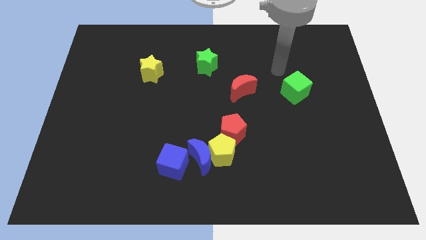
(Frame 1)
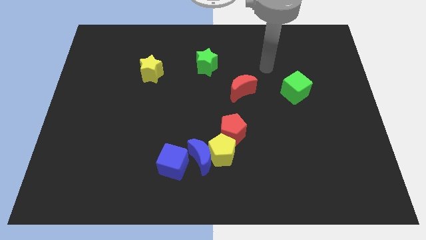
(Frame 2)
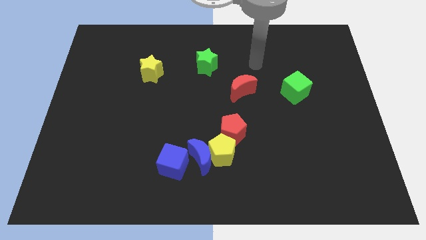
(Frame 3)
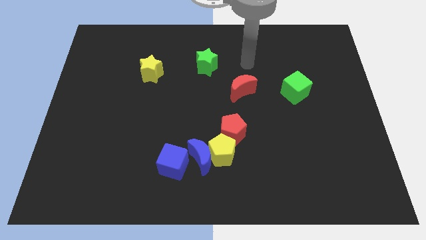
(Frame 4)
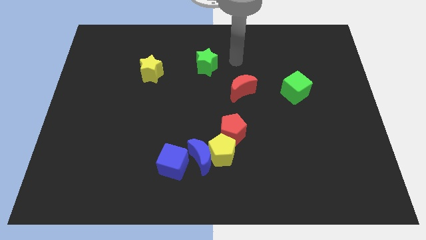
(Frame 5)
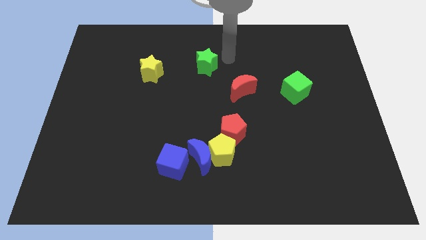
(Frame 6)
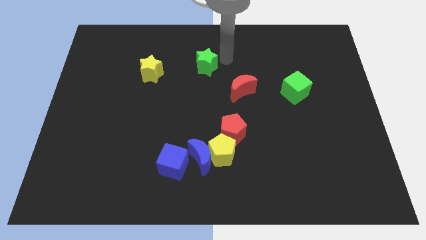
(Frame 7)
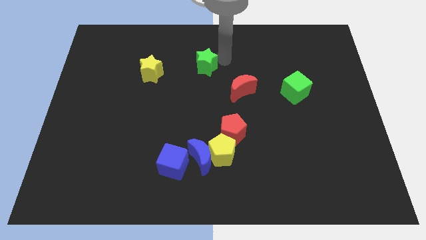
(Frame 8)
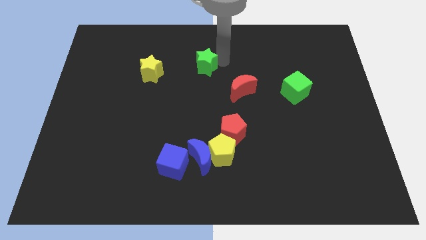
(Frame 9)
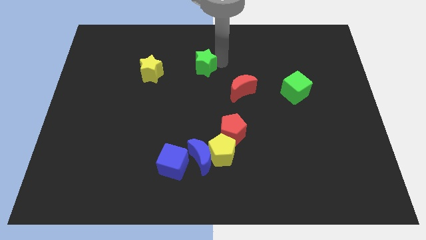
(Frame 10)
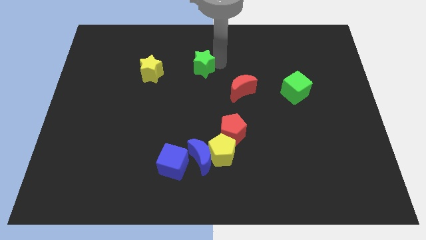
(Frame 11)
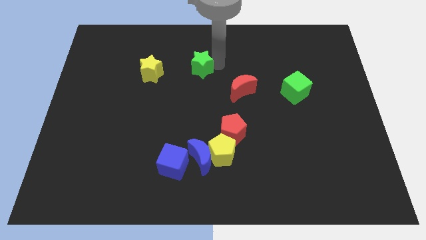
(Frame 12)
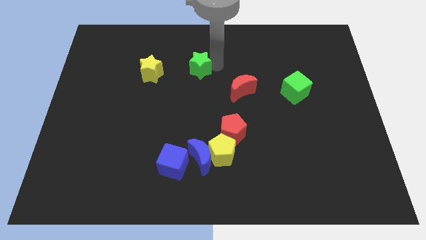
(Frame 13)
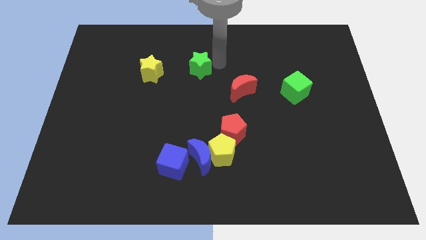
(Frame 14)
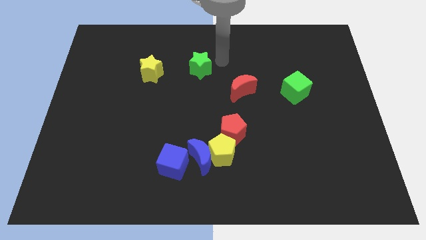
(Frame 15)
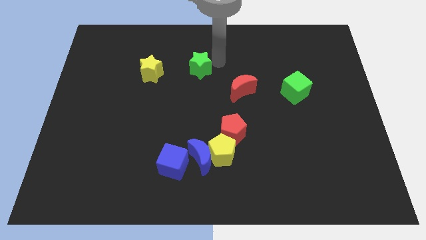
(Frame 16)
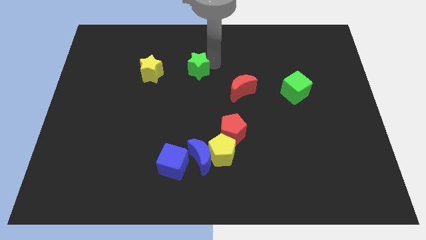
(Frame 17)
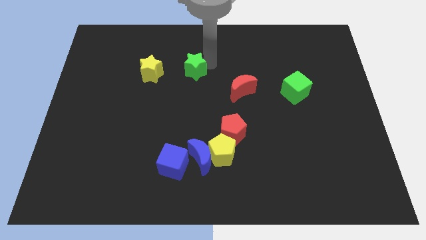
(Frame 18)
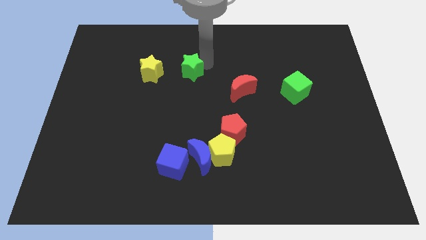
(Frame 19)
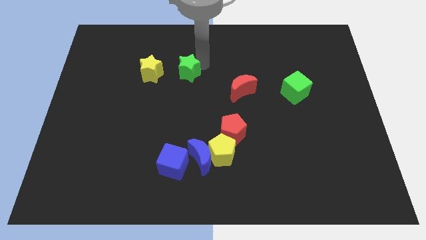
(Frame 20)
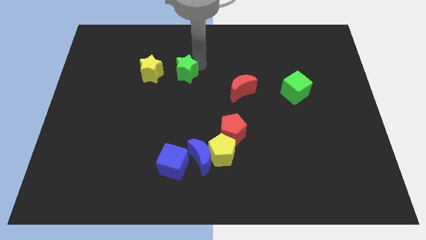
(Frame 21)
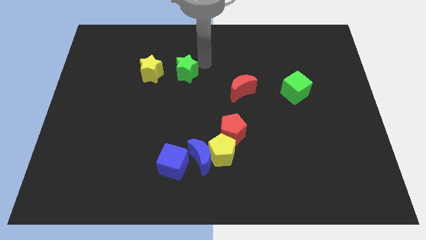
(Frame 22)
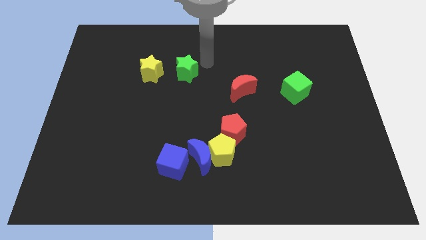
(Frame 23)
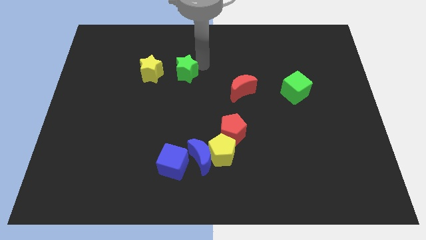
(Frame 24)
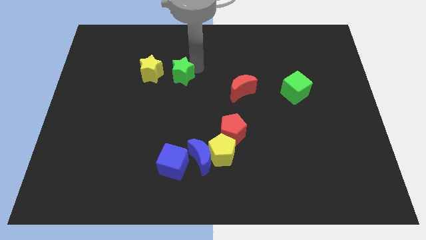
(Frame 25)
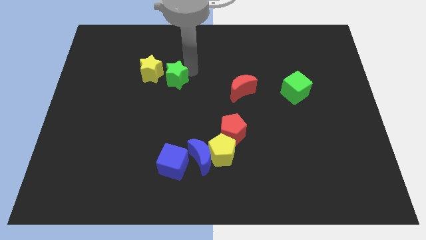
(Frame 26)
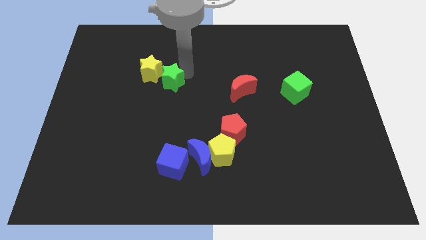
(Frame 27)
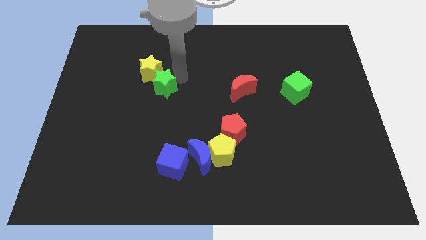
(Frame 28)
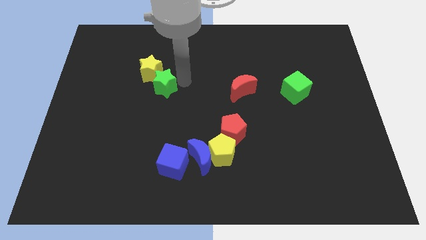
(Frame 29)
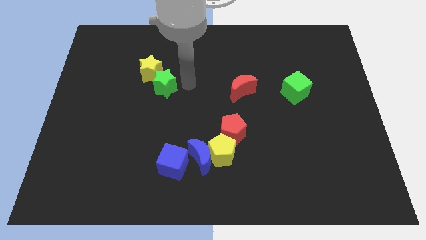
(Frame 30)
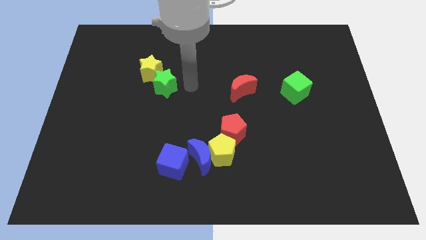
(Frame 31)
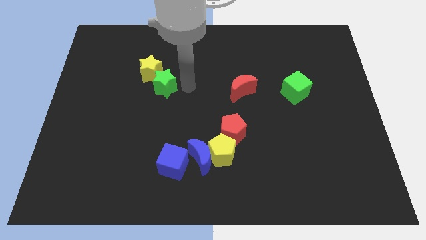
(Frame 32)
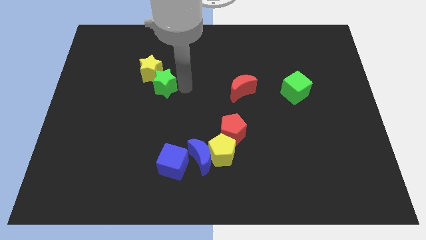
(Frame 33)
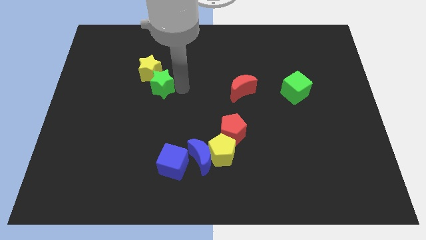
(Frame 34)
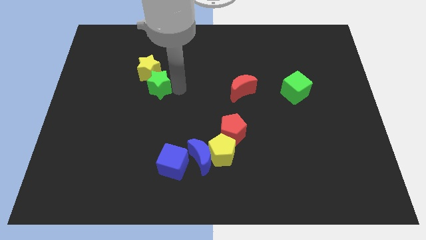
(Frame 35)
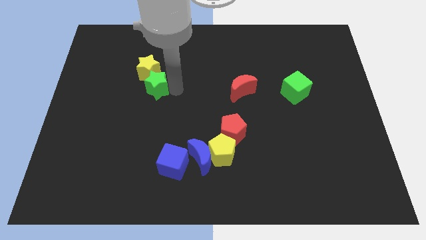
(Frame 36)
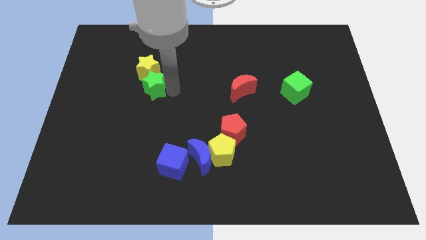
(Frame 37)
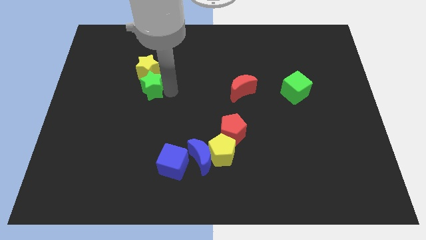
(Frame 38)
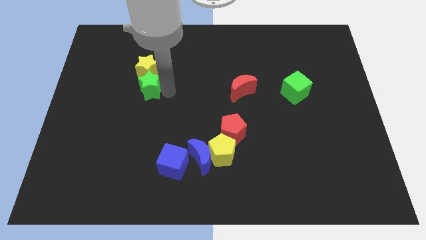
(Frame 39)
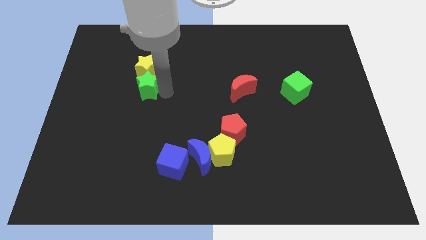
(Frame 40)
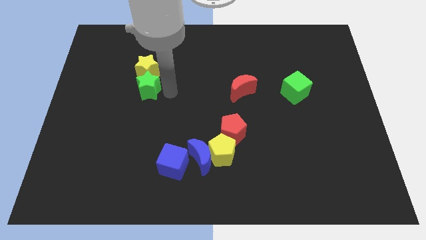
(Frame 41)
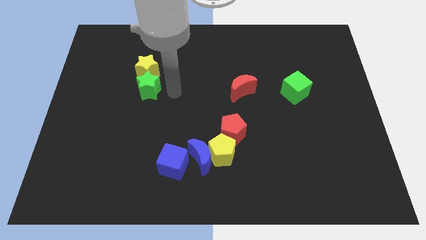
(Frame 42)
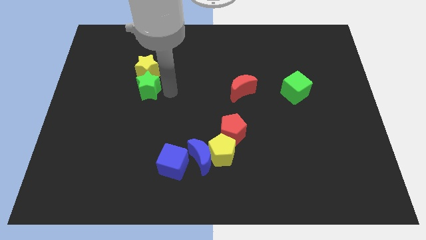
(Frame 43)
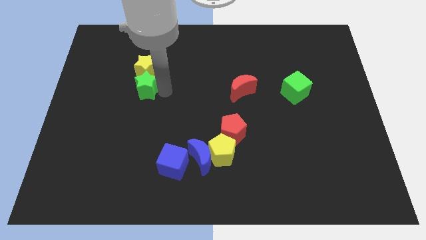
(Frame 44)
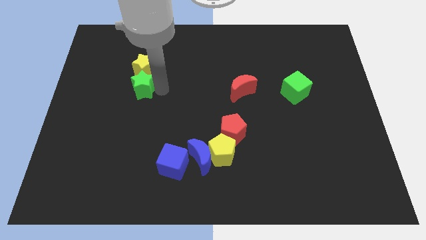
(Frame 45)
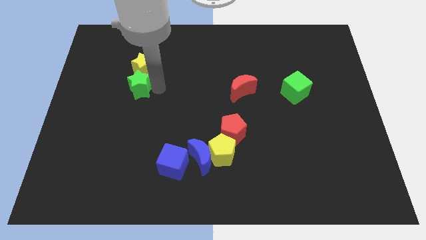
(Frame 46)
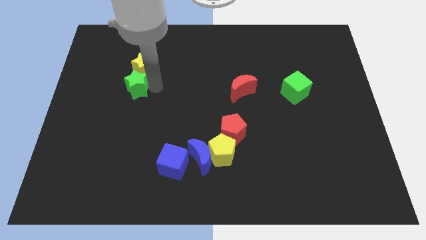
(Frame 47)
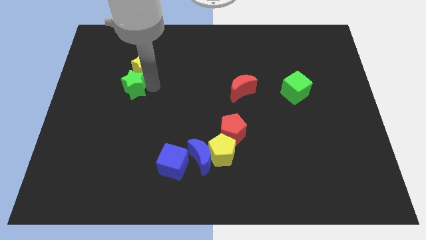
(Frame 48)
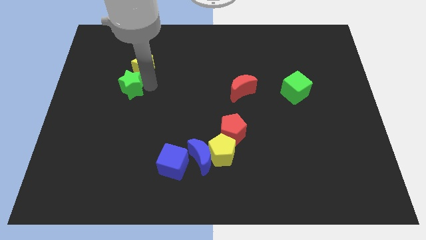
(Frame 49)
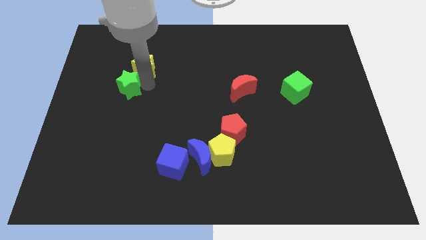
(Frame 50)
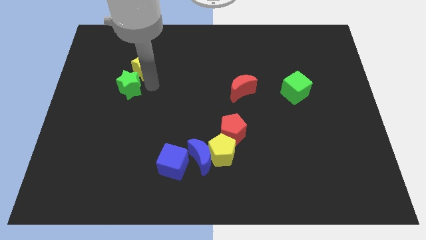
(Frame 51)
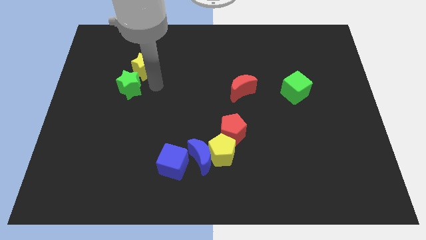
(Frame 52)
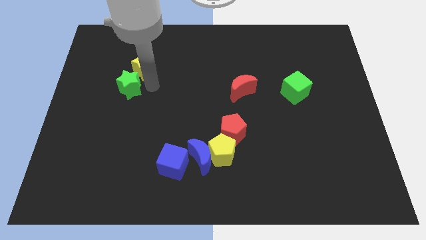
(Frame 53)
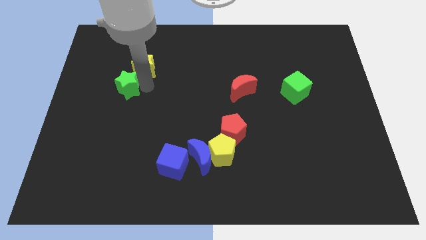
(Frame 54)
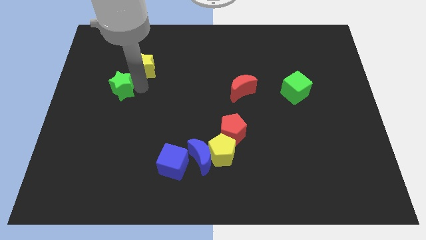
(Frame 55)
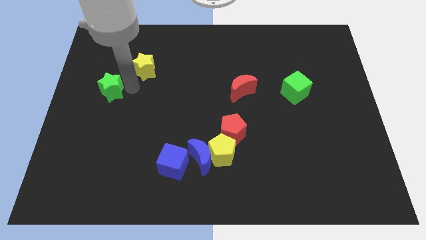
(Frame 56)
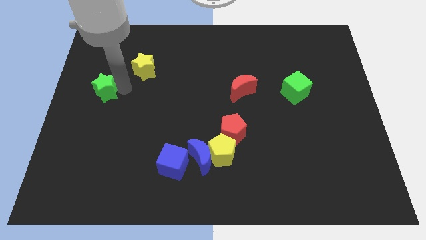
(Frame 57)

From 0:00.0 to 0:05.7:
move the green star to the left side

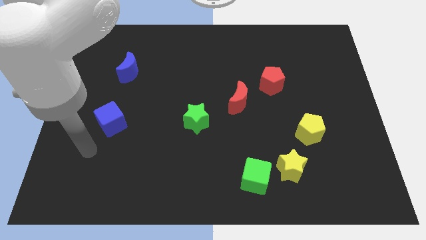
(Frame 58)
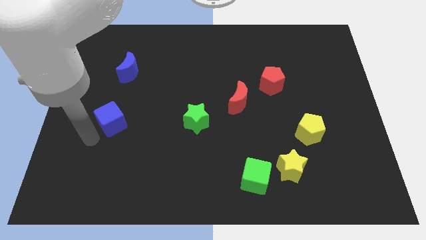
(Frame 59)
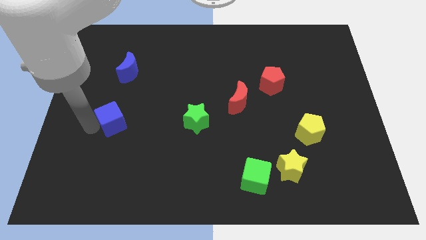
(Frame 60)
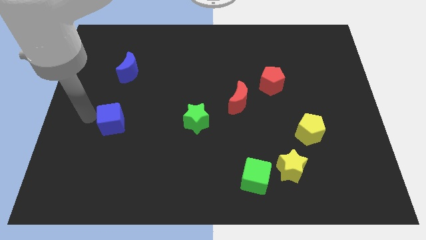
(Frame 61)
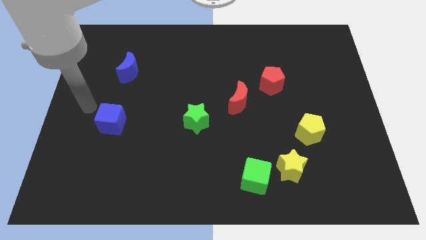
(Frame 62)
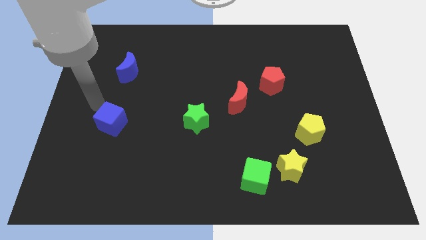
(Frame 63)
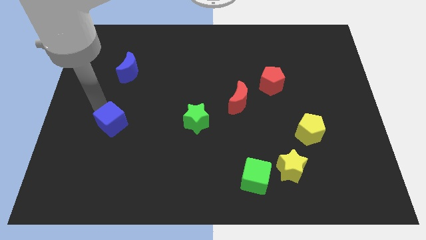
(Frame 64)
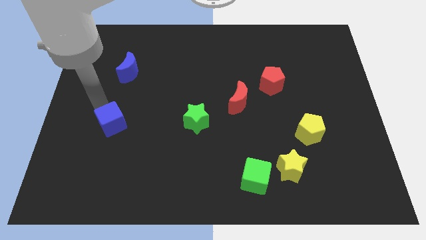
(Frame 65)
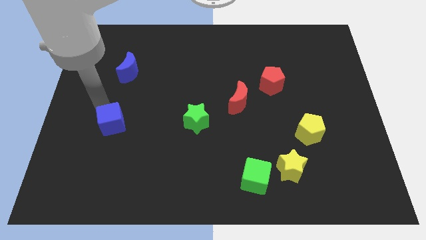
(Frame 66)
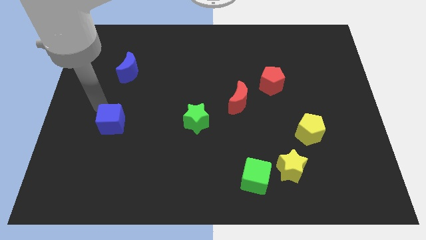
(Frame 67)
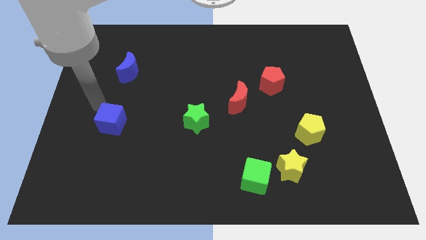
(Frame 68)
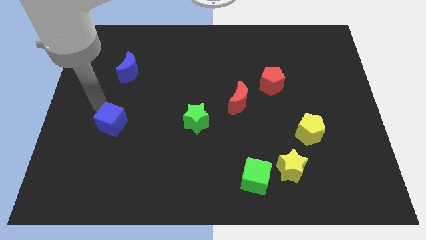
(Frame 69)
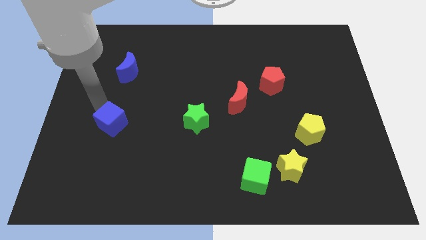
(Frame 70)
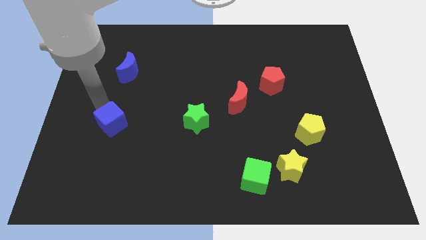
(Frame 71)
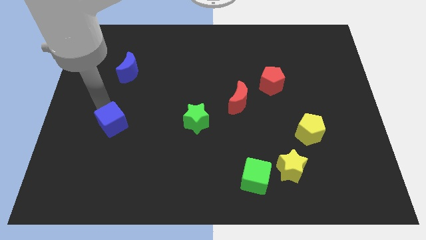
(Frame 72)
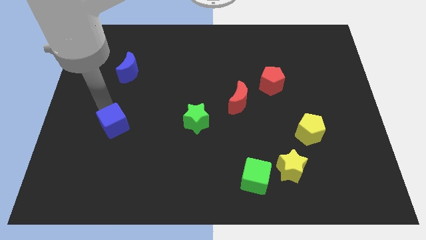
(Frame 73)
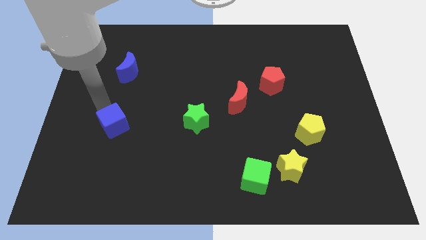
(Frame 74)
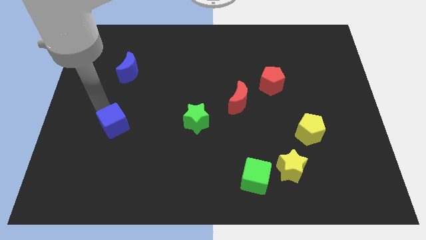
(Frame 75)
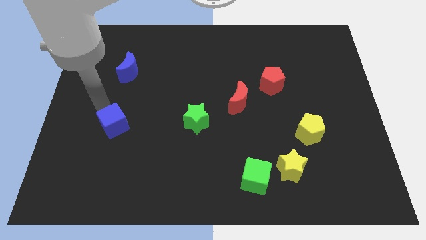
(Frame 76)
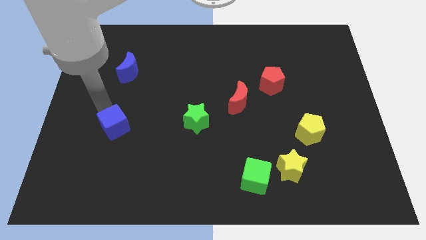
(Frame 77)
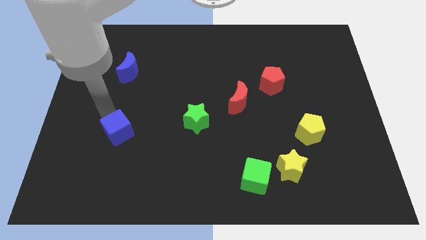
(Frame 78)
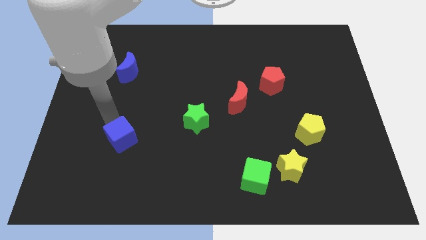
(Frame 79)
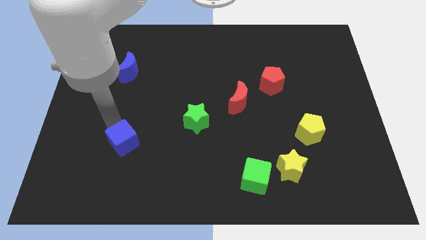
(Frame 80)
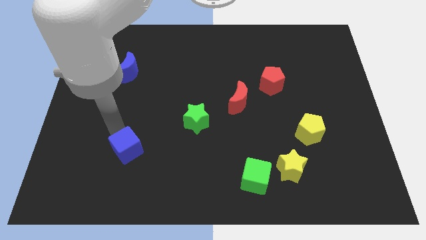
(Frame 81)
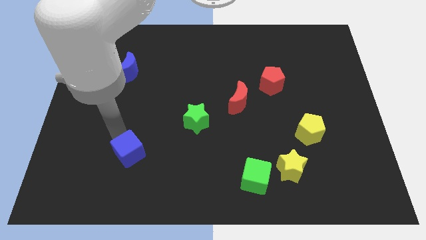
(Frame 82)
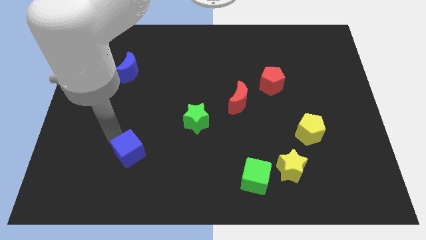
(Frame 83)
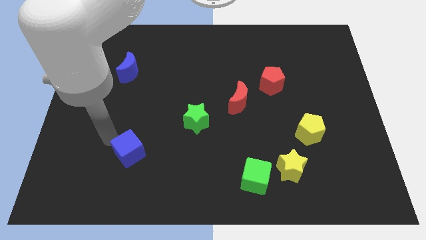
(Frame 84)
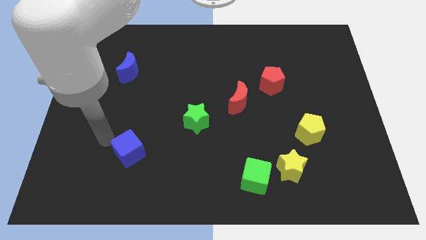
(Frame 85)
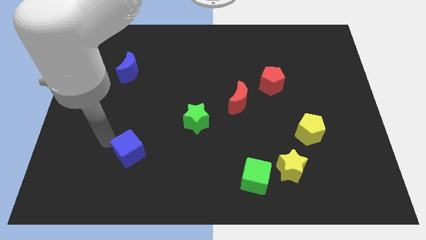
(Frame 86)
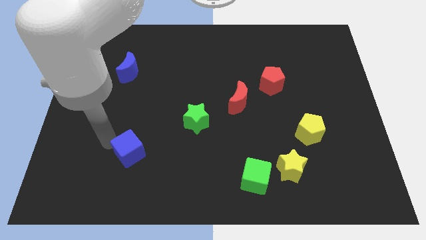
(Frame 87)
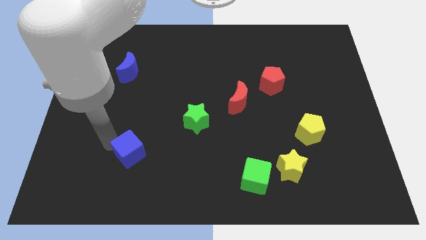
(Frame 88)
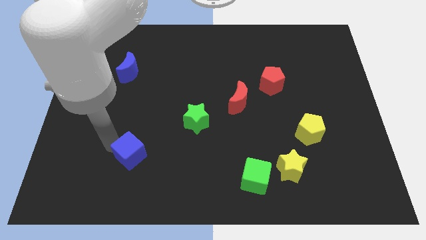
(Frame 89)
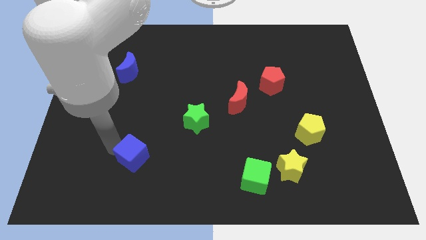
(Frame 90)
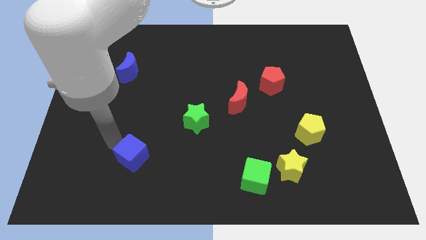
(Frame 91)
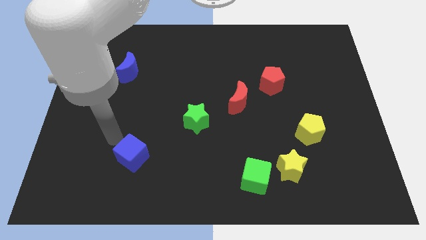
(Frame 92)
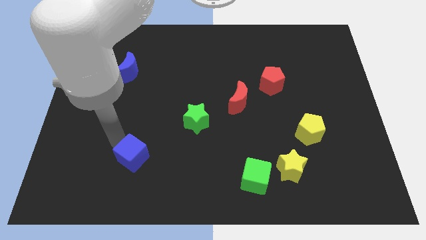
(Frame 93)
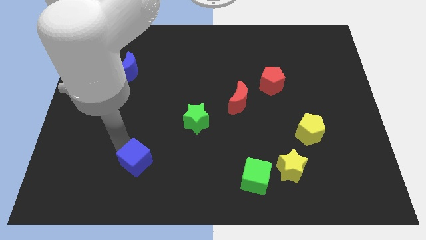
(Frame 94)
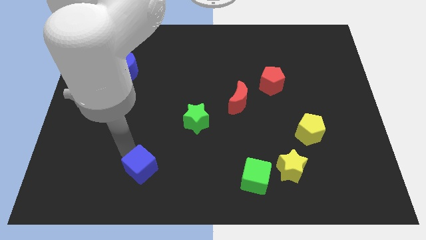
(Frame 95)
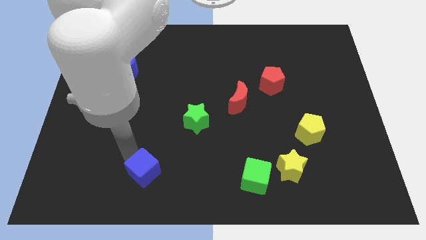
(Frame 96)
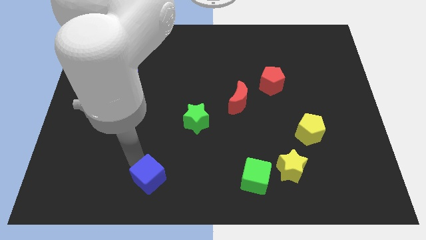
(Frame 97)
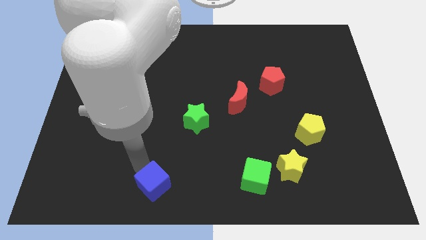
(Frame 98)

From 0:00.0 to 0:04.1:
slide the blue cube to the bottom
